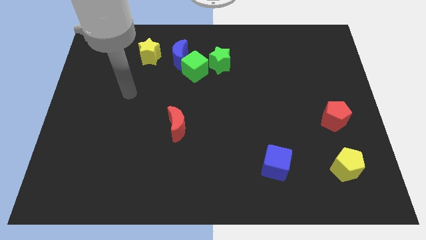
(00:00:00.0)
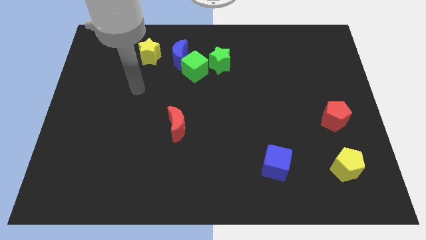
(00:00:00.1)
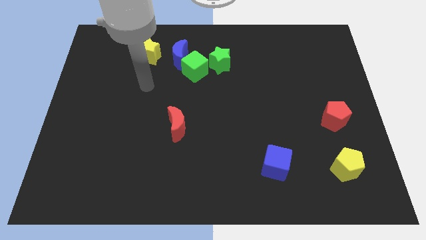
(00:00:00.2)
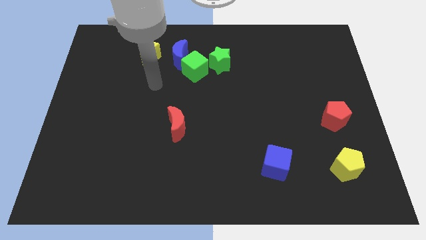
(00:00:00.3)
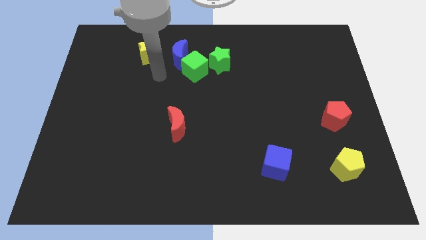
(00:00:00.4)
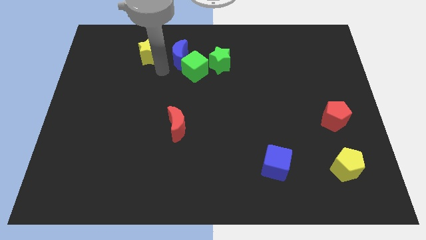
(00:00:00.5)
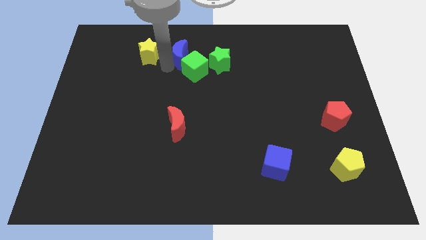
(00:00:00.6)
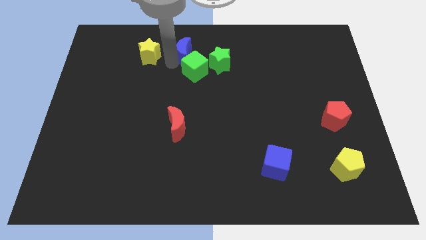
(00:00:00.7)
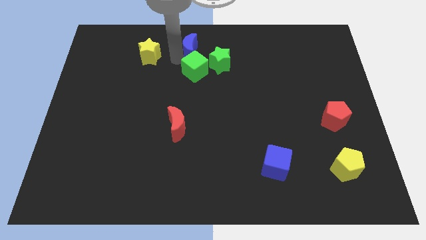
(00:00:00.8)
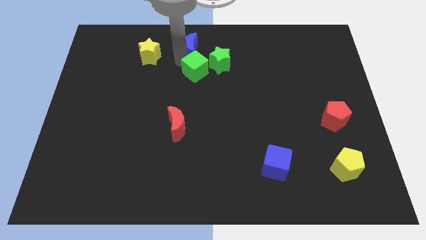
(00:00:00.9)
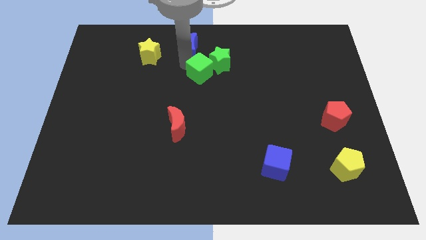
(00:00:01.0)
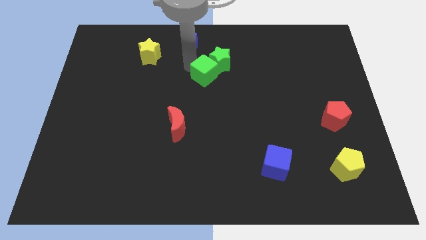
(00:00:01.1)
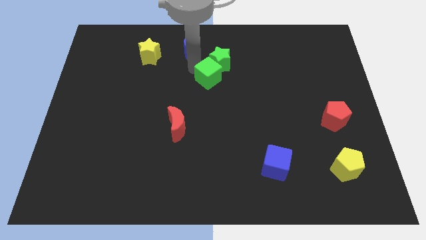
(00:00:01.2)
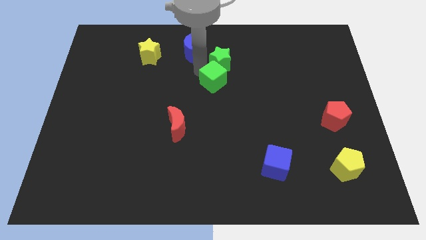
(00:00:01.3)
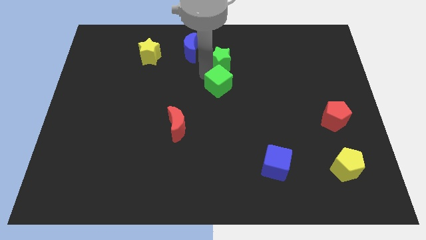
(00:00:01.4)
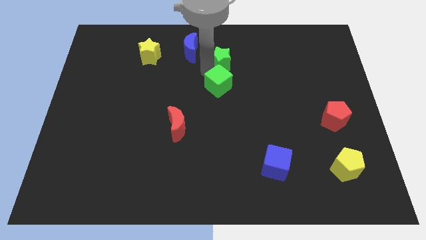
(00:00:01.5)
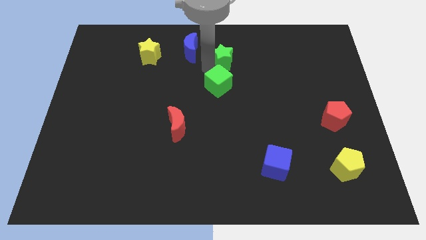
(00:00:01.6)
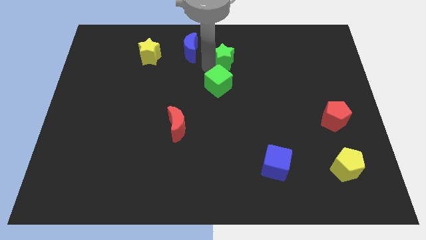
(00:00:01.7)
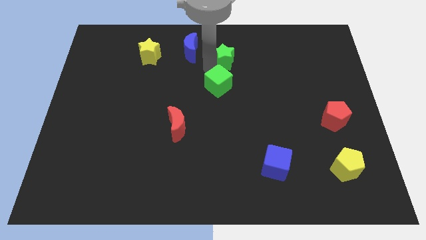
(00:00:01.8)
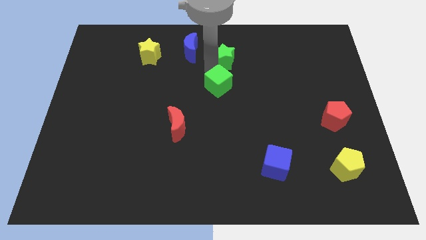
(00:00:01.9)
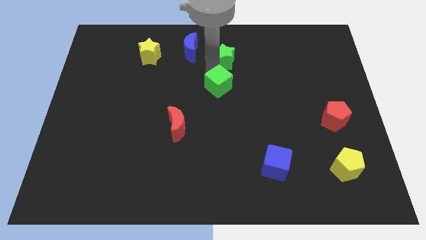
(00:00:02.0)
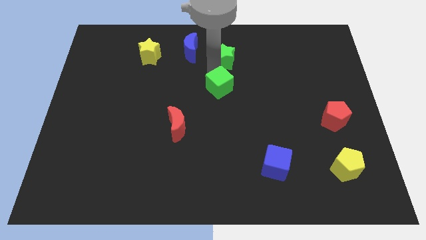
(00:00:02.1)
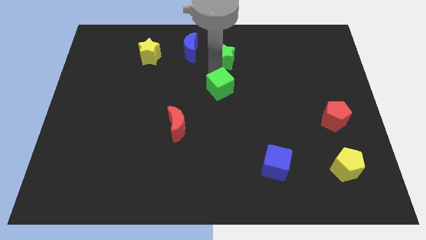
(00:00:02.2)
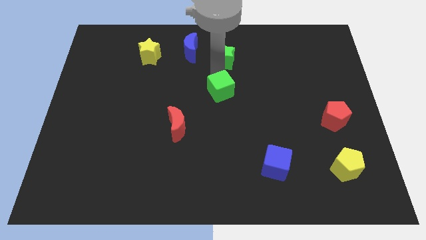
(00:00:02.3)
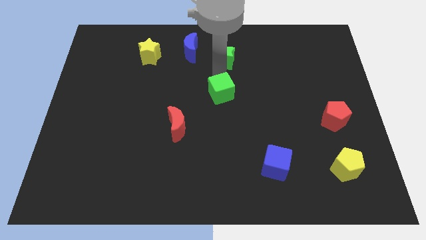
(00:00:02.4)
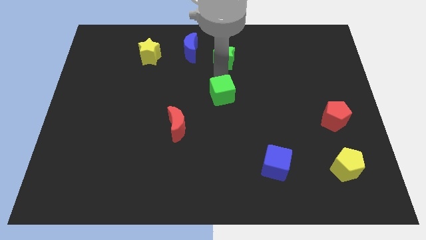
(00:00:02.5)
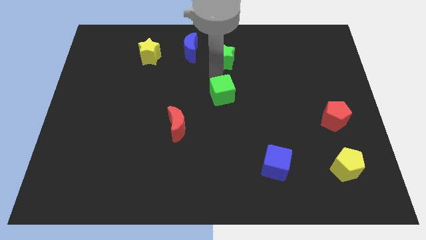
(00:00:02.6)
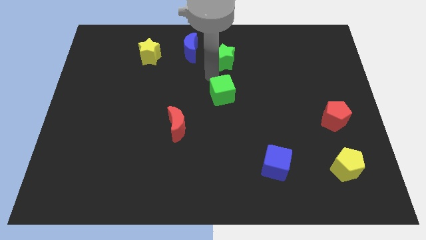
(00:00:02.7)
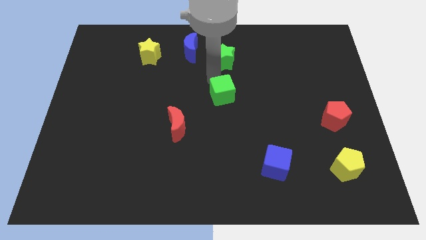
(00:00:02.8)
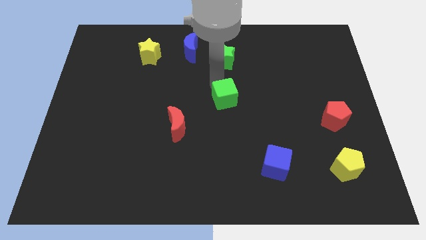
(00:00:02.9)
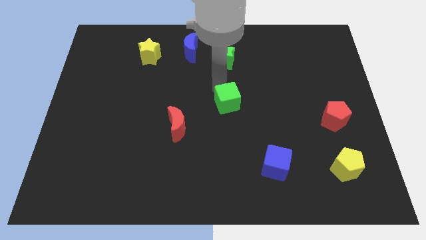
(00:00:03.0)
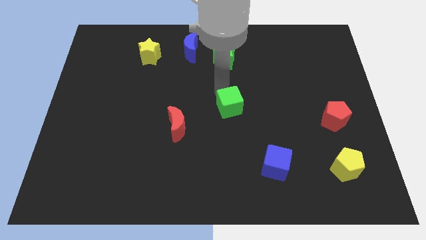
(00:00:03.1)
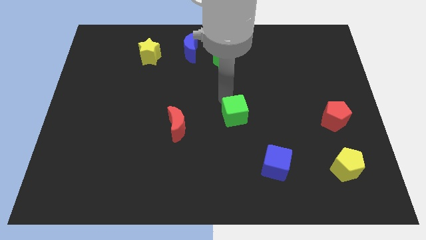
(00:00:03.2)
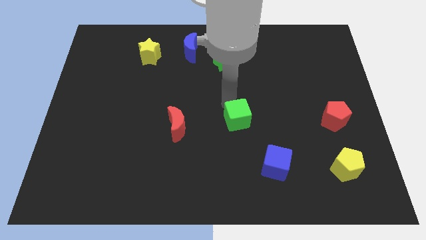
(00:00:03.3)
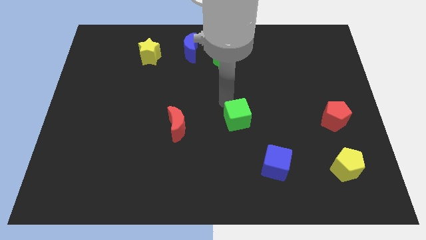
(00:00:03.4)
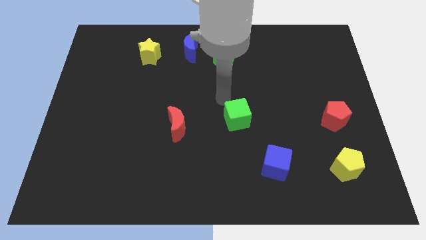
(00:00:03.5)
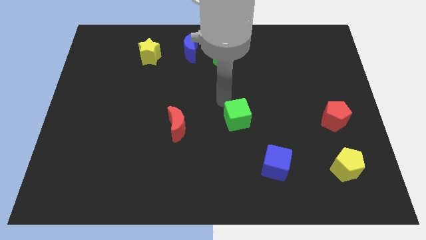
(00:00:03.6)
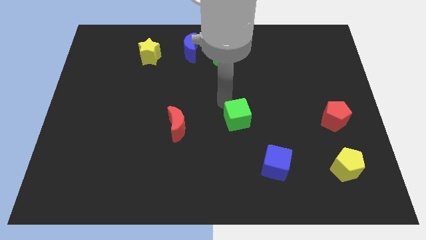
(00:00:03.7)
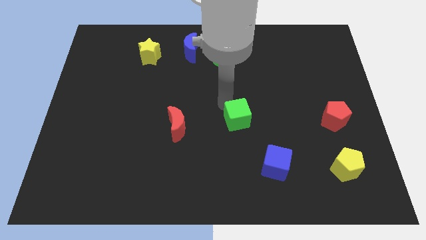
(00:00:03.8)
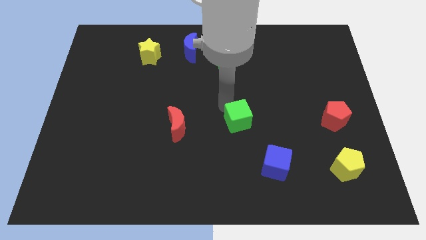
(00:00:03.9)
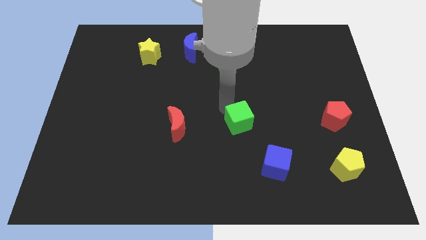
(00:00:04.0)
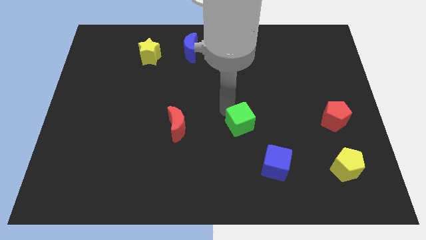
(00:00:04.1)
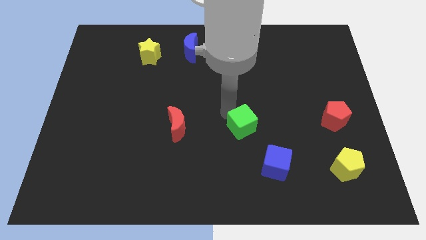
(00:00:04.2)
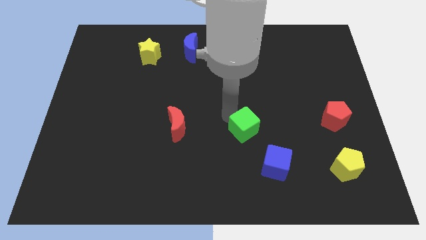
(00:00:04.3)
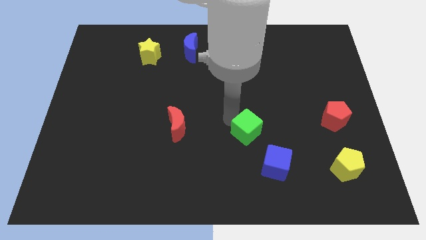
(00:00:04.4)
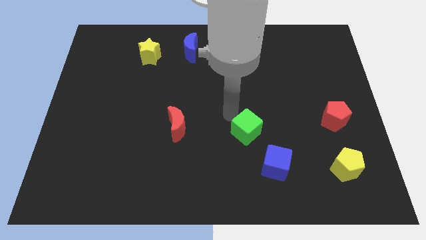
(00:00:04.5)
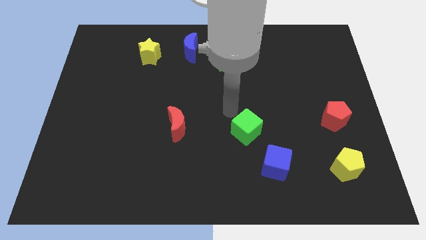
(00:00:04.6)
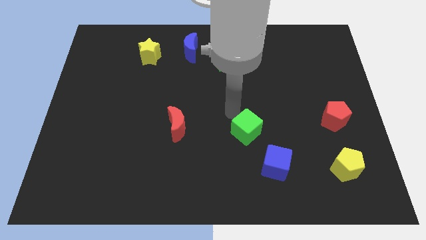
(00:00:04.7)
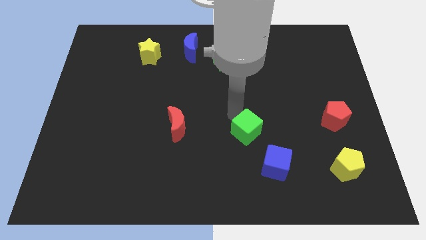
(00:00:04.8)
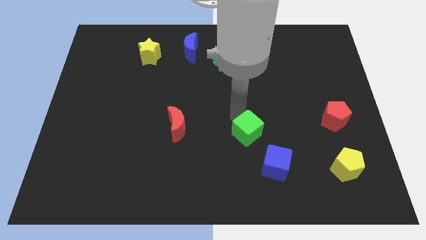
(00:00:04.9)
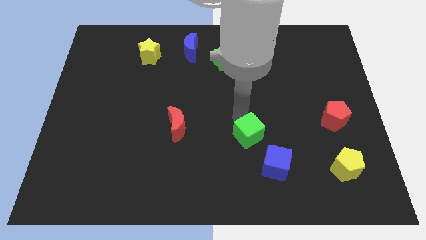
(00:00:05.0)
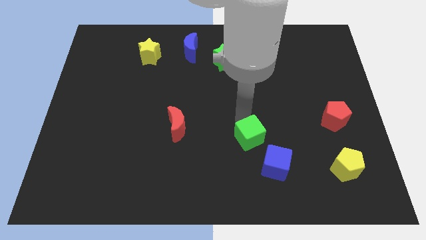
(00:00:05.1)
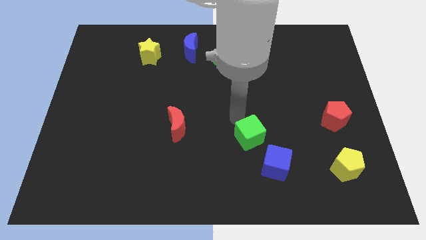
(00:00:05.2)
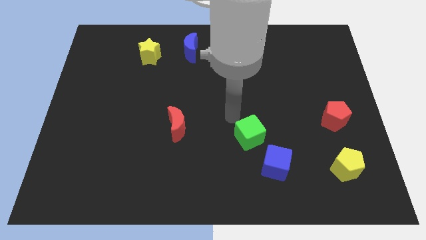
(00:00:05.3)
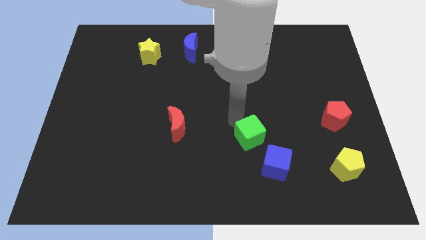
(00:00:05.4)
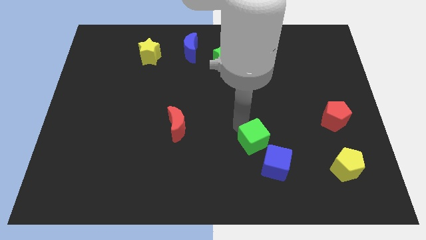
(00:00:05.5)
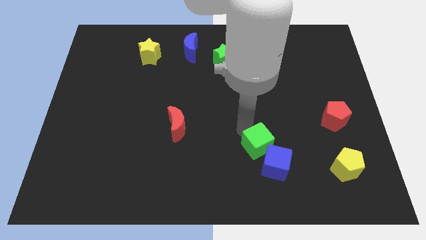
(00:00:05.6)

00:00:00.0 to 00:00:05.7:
move the green cube to the blue cube

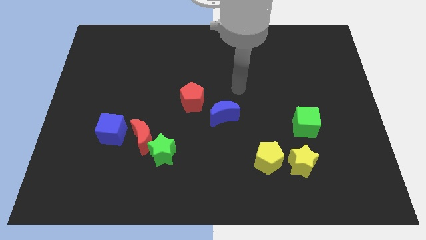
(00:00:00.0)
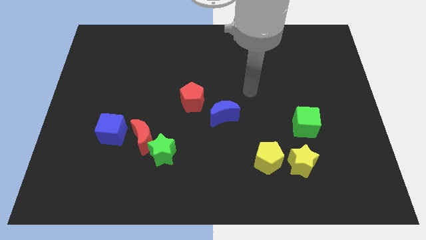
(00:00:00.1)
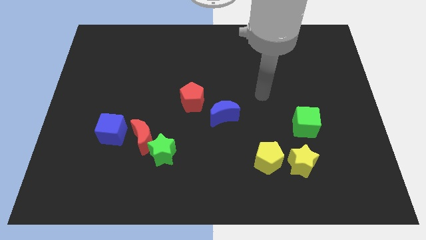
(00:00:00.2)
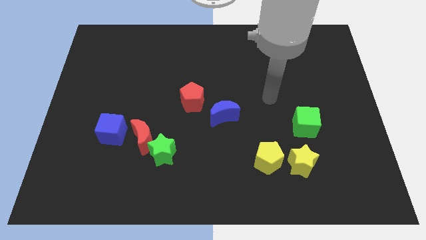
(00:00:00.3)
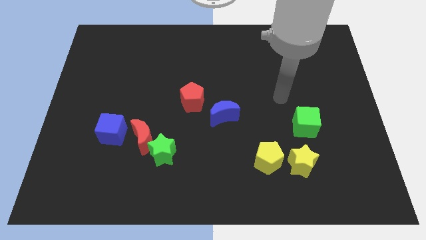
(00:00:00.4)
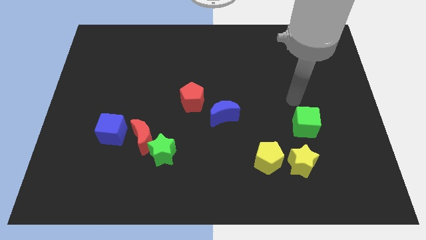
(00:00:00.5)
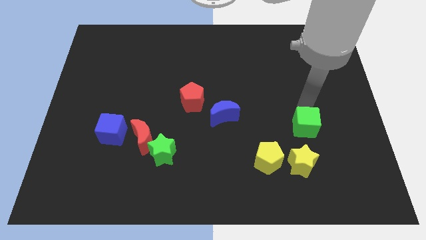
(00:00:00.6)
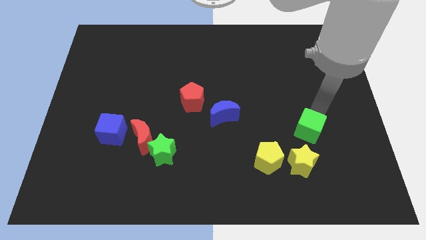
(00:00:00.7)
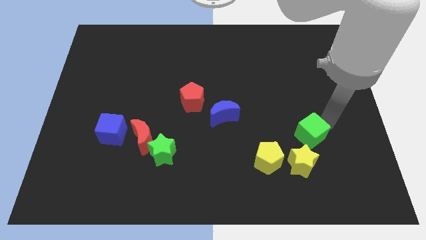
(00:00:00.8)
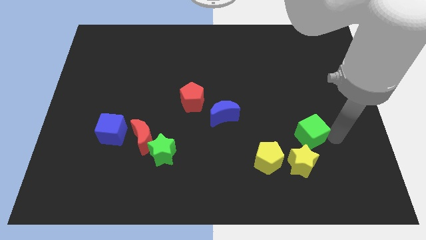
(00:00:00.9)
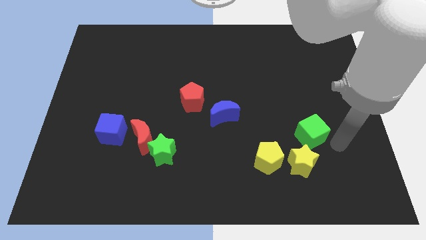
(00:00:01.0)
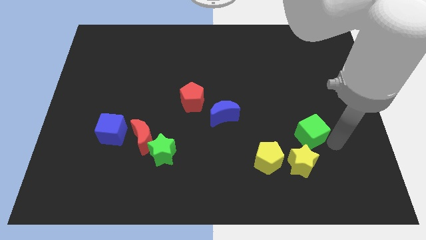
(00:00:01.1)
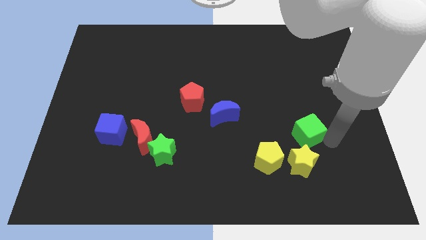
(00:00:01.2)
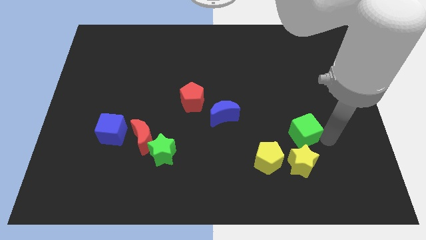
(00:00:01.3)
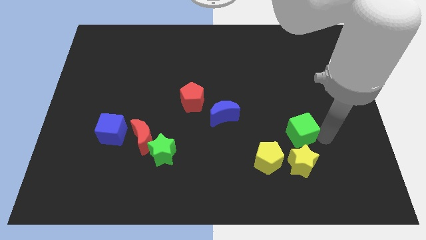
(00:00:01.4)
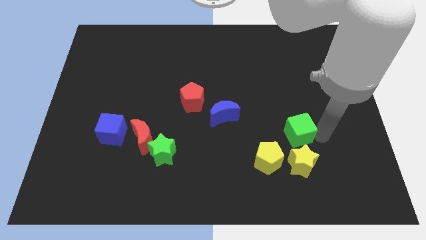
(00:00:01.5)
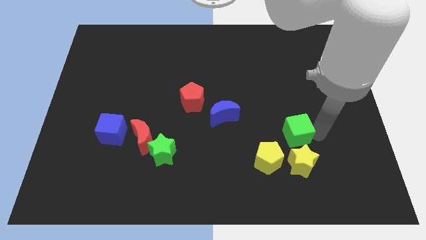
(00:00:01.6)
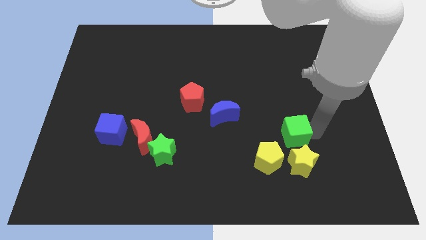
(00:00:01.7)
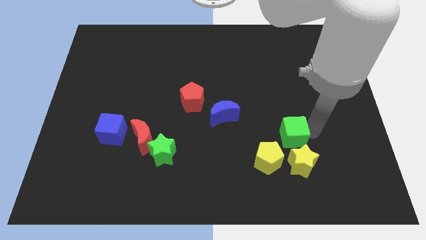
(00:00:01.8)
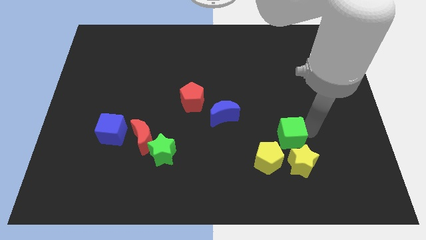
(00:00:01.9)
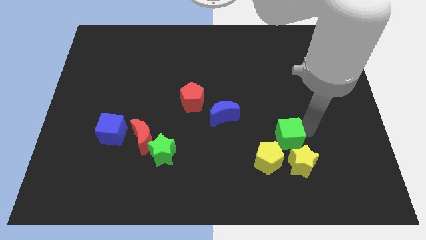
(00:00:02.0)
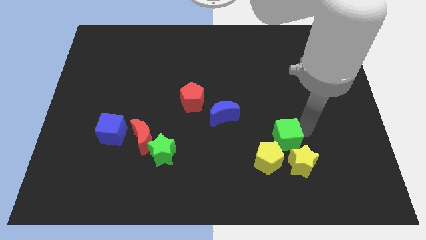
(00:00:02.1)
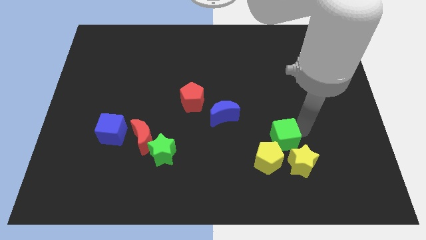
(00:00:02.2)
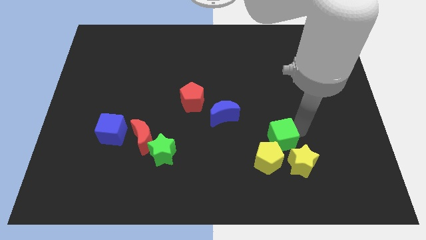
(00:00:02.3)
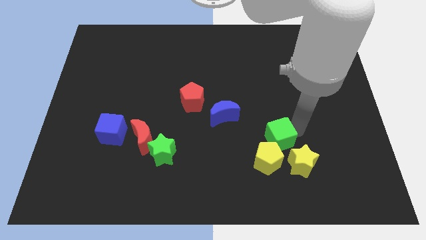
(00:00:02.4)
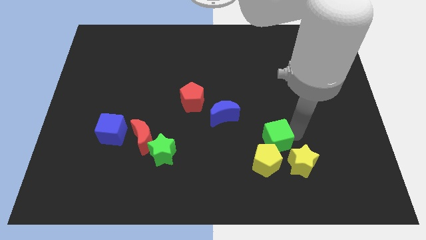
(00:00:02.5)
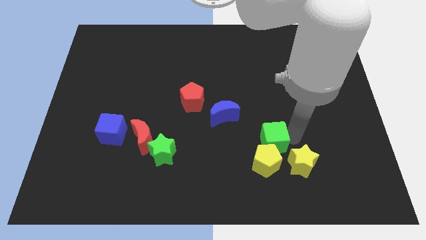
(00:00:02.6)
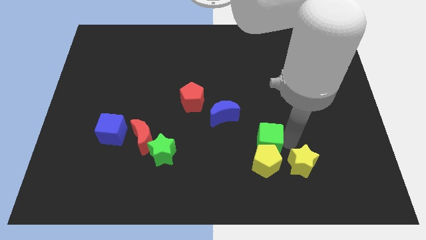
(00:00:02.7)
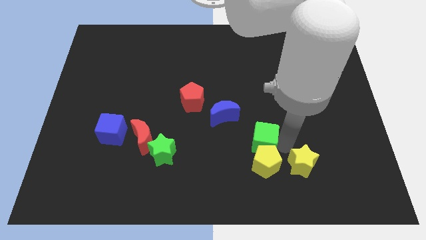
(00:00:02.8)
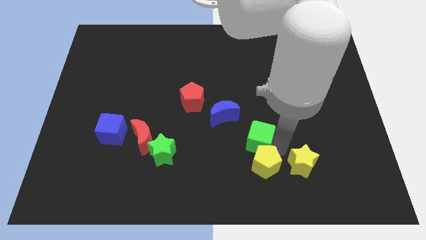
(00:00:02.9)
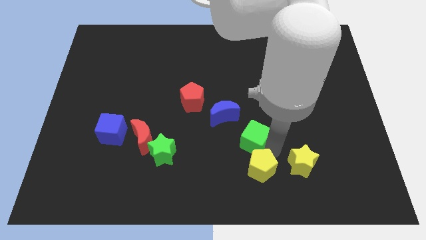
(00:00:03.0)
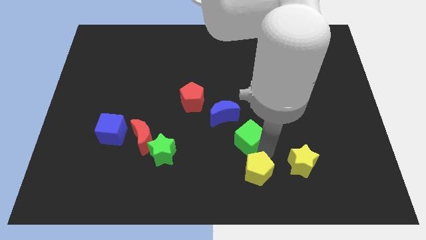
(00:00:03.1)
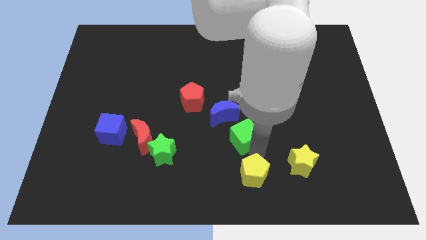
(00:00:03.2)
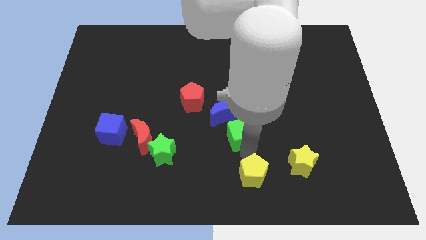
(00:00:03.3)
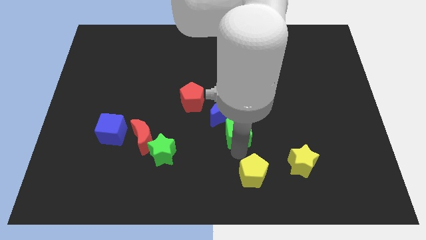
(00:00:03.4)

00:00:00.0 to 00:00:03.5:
slide the green cube close to the blue moon
